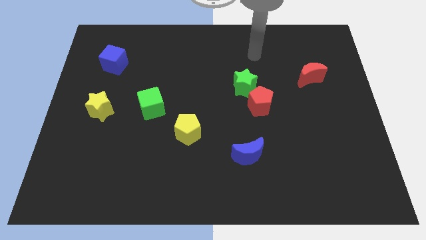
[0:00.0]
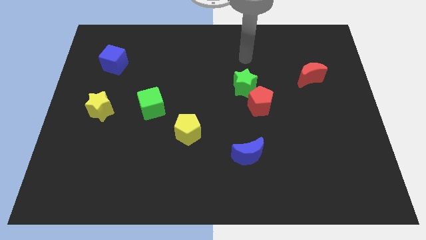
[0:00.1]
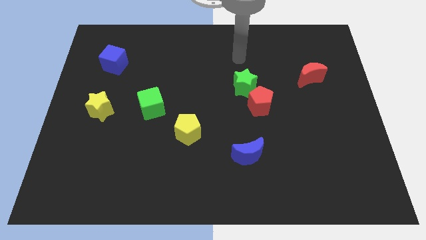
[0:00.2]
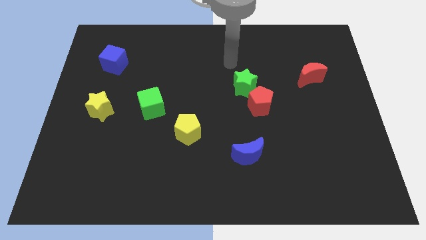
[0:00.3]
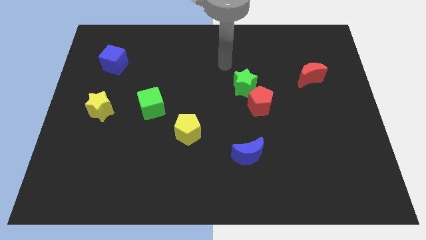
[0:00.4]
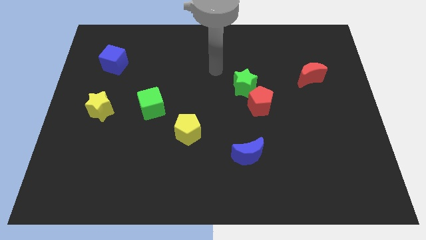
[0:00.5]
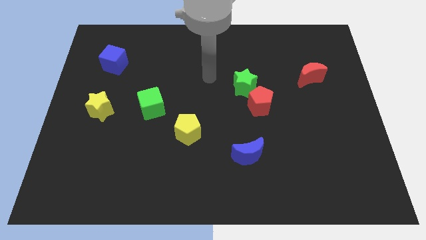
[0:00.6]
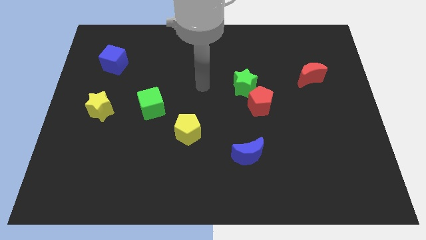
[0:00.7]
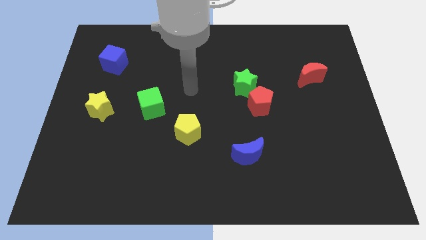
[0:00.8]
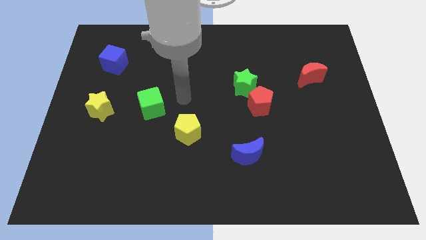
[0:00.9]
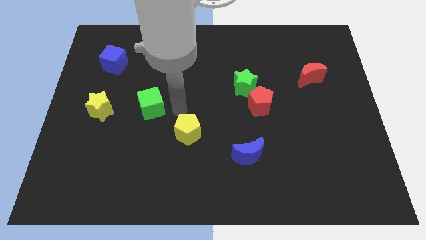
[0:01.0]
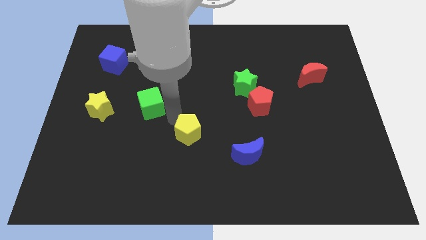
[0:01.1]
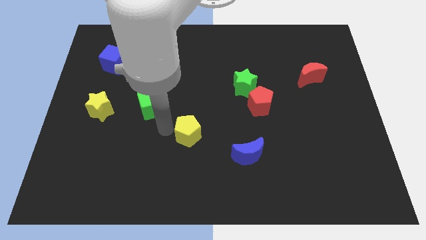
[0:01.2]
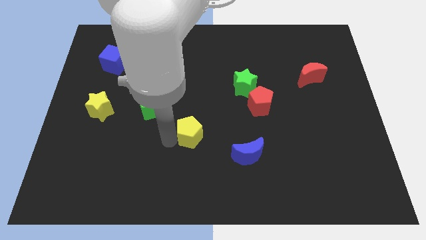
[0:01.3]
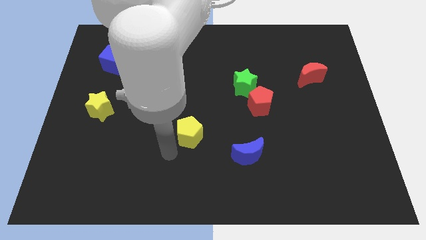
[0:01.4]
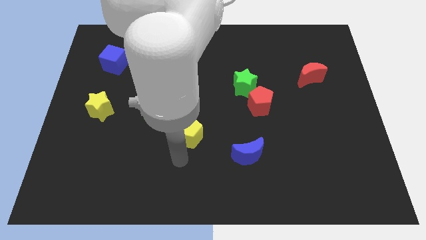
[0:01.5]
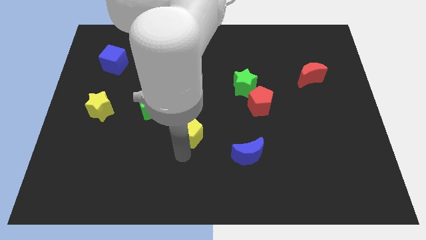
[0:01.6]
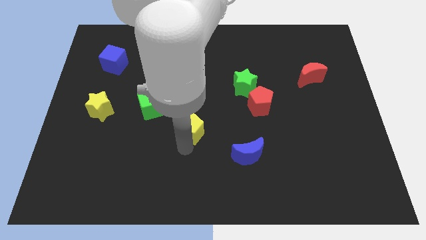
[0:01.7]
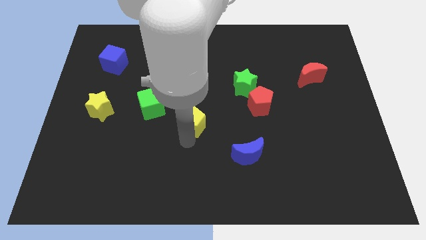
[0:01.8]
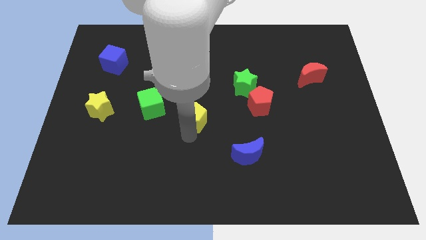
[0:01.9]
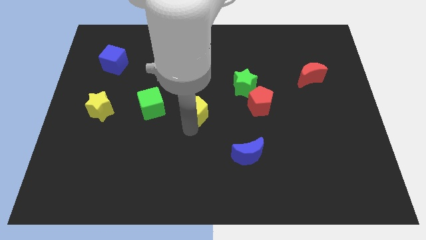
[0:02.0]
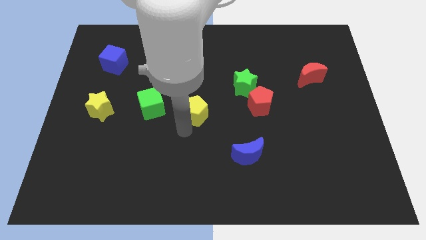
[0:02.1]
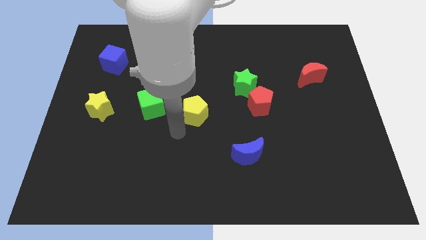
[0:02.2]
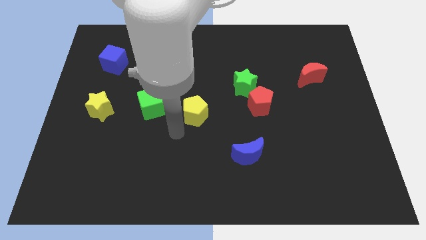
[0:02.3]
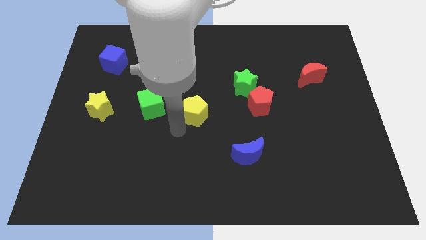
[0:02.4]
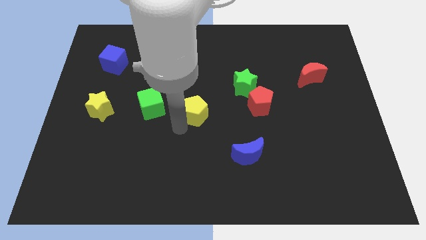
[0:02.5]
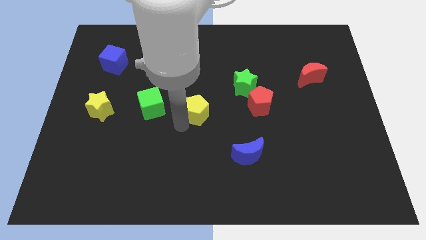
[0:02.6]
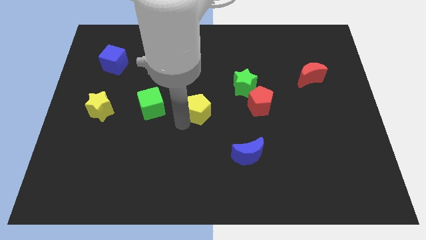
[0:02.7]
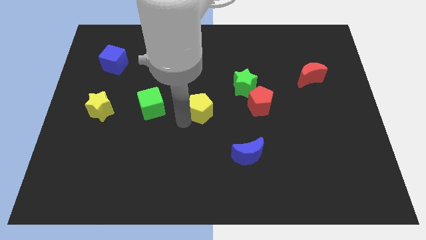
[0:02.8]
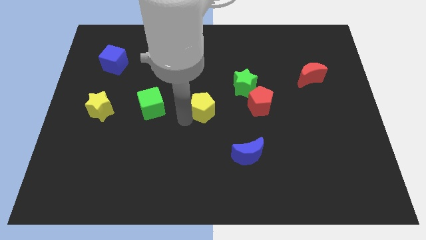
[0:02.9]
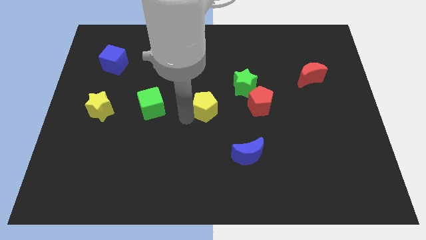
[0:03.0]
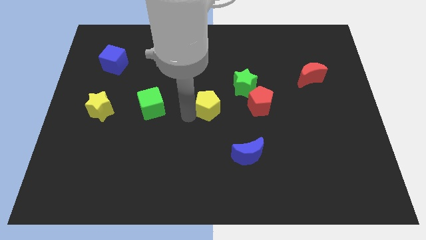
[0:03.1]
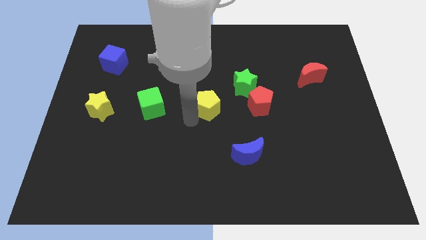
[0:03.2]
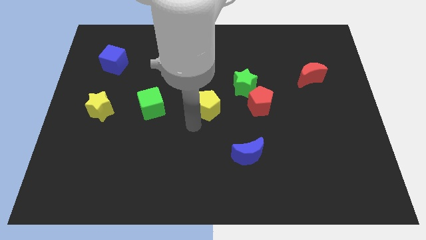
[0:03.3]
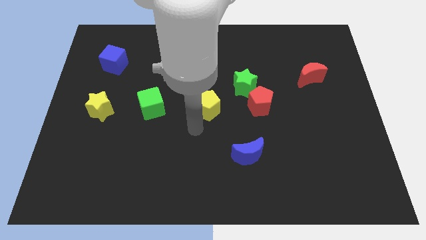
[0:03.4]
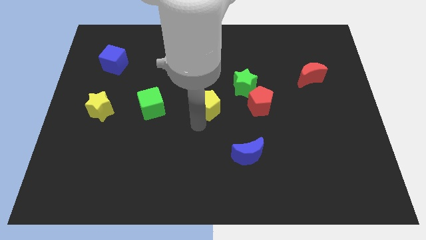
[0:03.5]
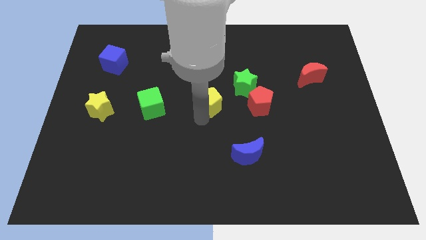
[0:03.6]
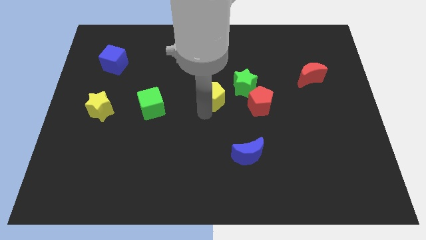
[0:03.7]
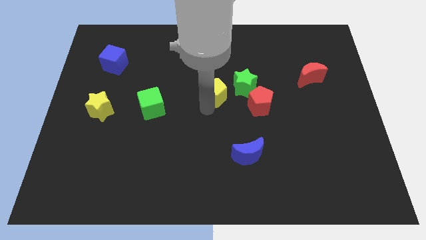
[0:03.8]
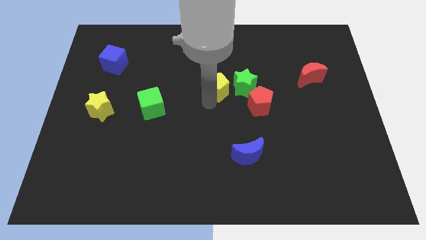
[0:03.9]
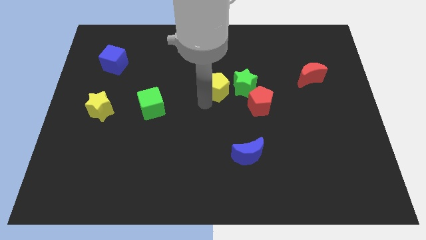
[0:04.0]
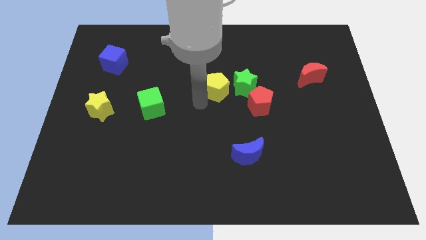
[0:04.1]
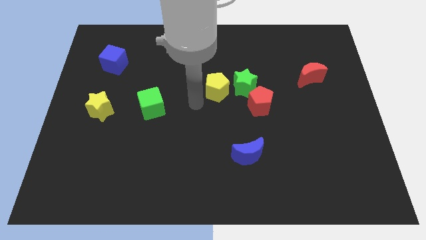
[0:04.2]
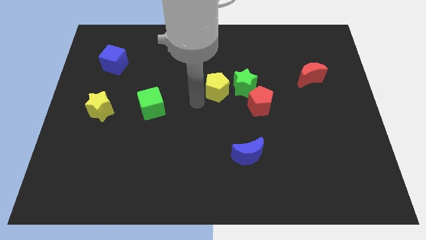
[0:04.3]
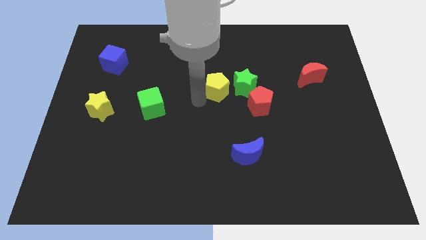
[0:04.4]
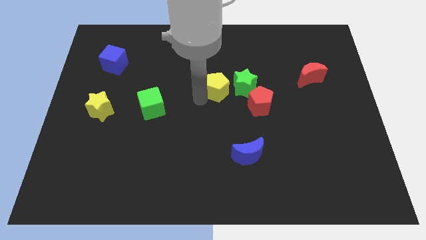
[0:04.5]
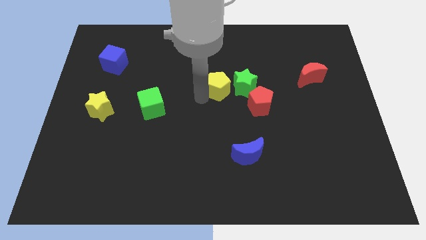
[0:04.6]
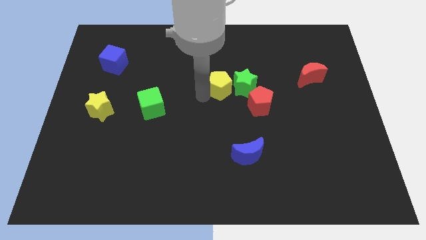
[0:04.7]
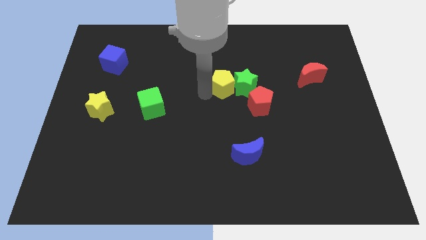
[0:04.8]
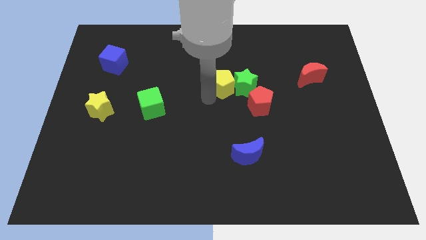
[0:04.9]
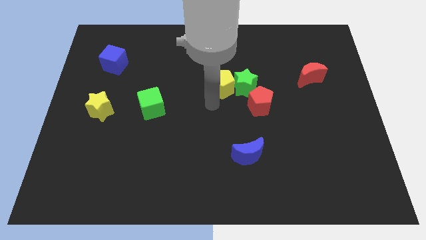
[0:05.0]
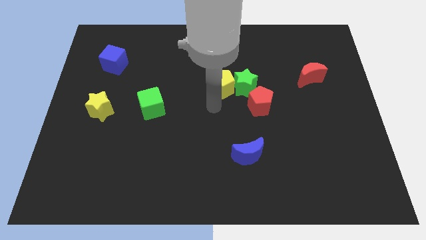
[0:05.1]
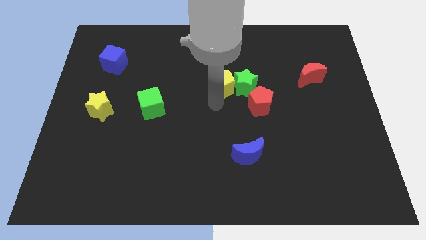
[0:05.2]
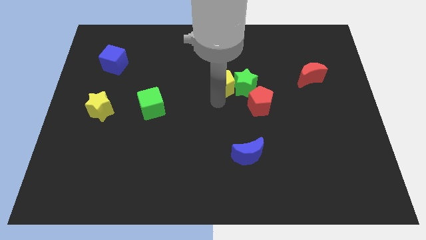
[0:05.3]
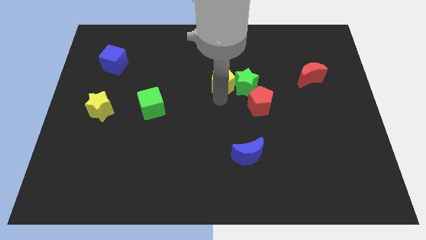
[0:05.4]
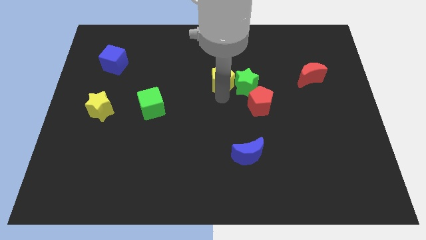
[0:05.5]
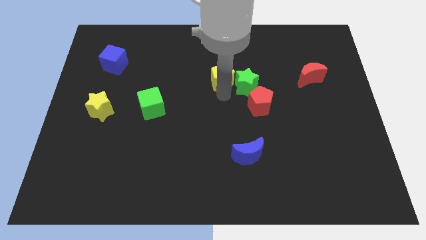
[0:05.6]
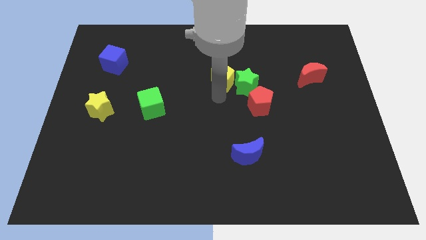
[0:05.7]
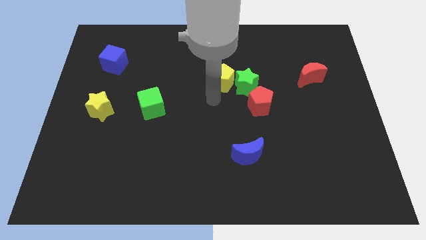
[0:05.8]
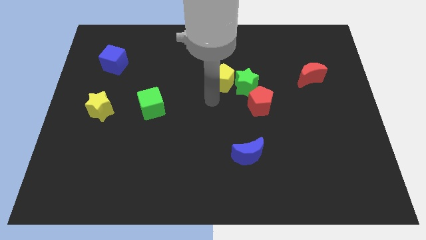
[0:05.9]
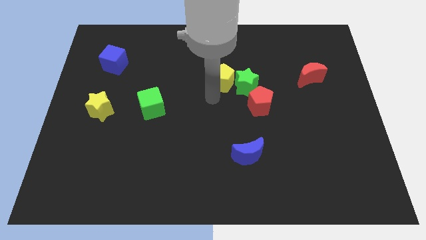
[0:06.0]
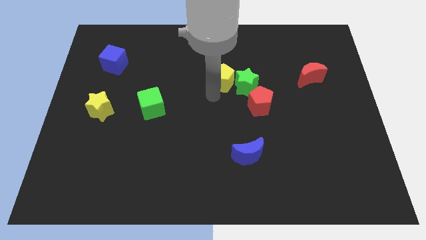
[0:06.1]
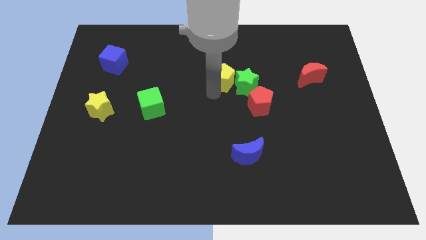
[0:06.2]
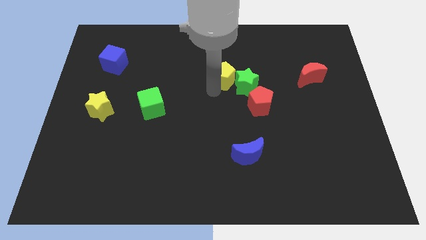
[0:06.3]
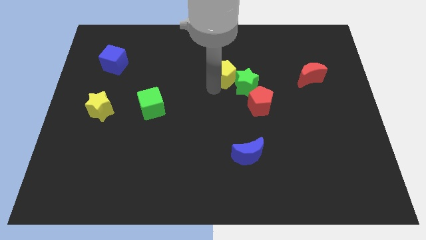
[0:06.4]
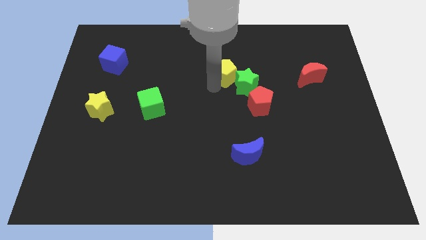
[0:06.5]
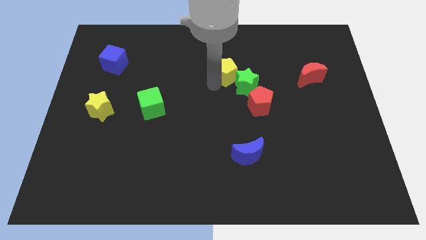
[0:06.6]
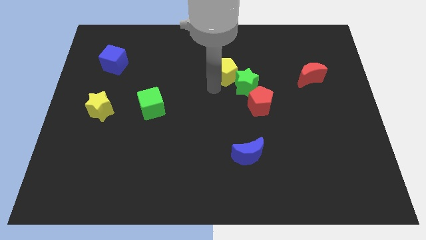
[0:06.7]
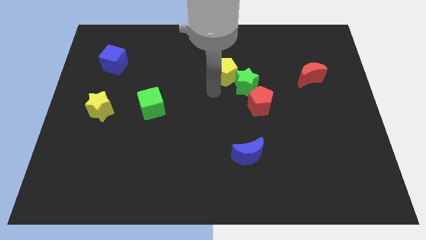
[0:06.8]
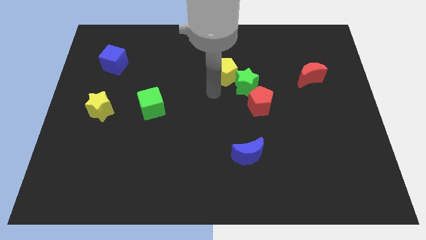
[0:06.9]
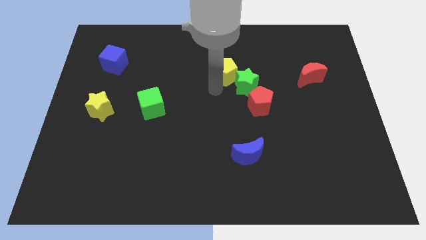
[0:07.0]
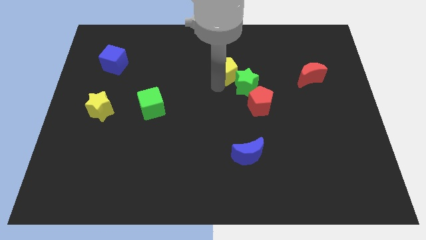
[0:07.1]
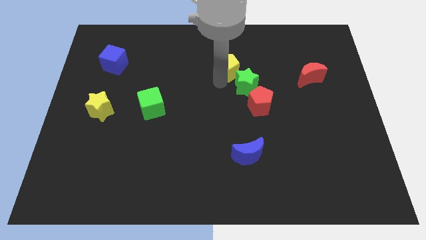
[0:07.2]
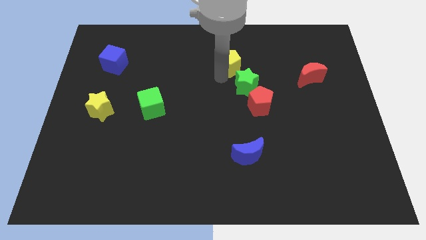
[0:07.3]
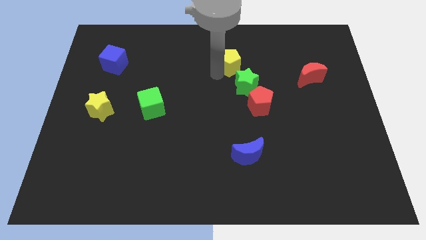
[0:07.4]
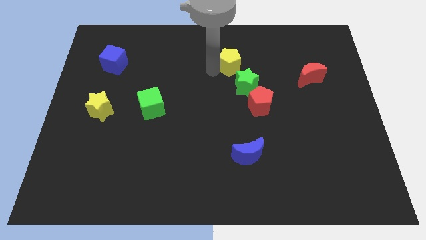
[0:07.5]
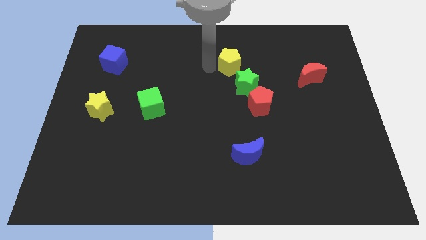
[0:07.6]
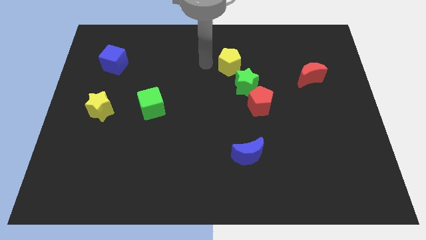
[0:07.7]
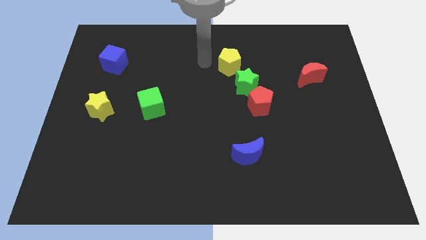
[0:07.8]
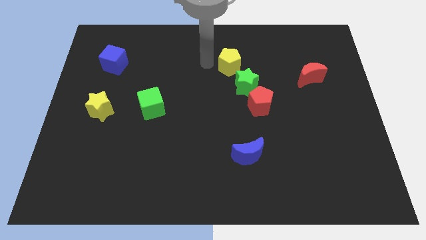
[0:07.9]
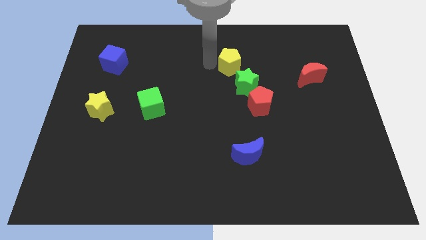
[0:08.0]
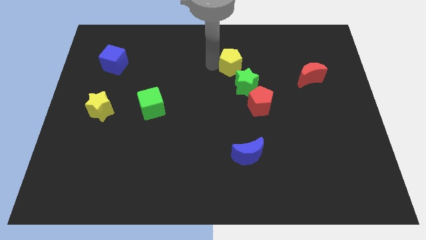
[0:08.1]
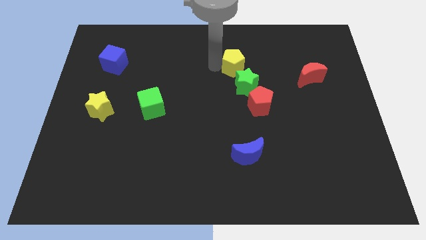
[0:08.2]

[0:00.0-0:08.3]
slide the yellow pentagon diagonally up and right
